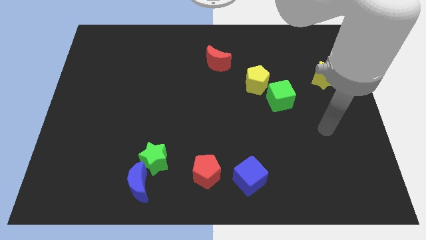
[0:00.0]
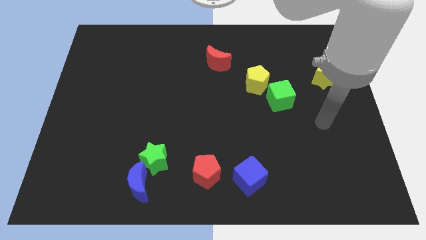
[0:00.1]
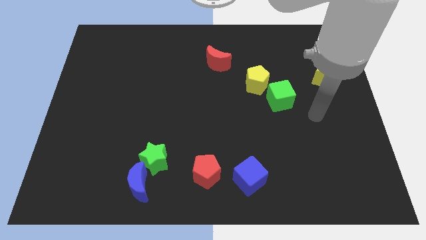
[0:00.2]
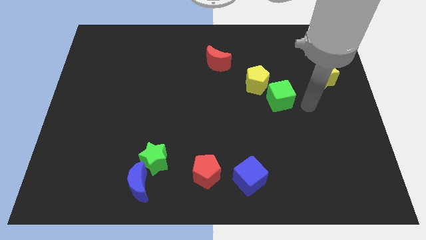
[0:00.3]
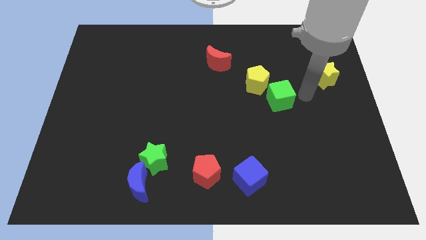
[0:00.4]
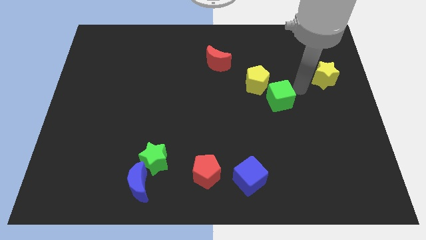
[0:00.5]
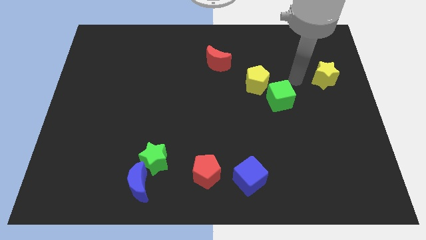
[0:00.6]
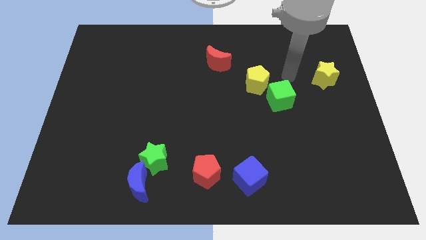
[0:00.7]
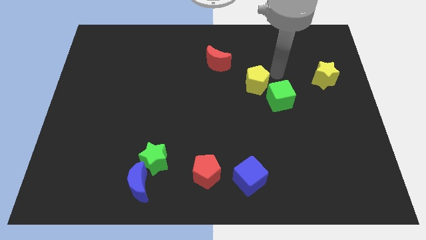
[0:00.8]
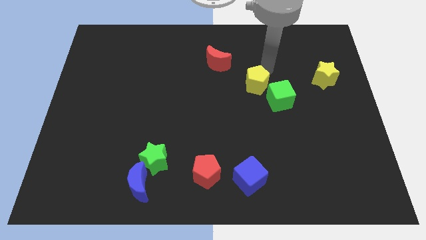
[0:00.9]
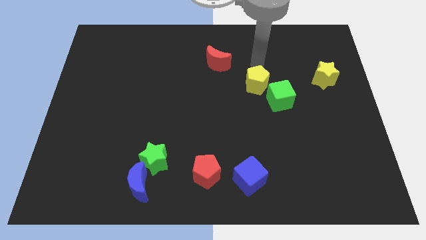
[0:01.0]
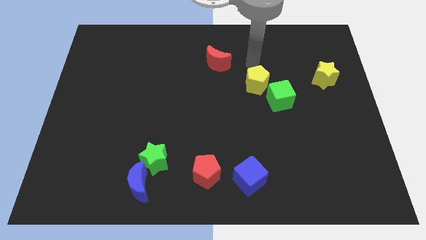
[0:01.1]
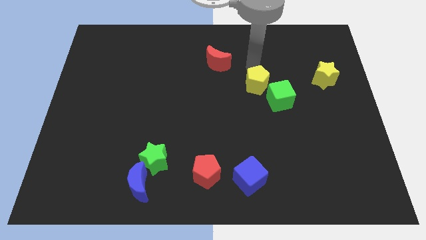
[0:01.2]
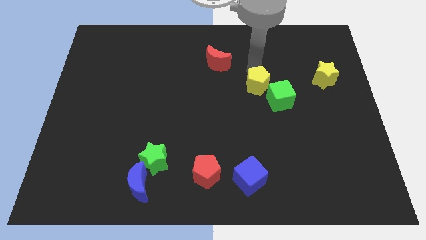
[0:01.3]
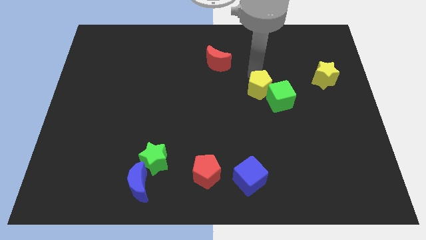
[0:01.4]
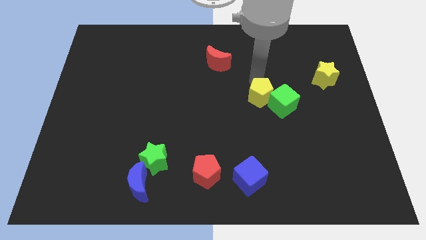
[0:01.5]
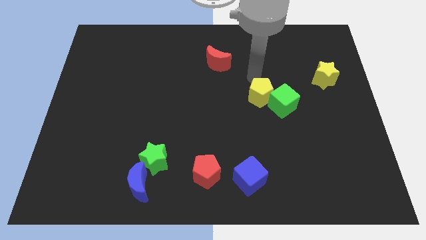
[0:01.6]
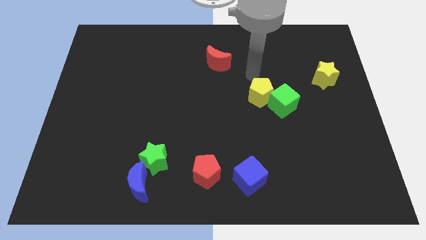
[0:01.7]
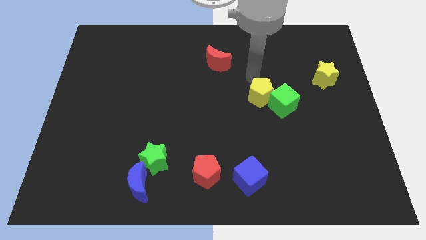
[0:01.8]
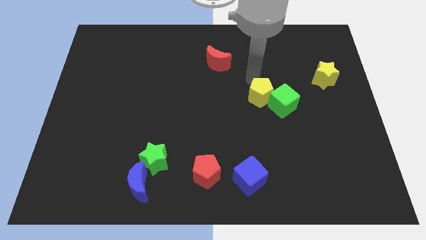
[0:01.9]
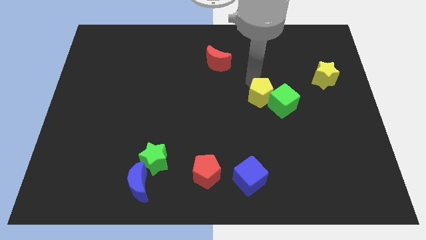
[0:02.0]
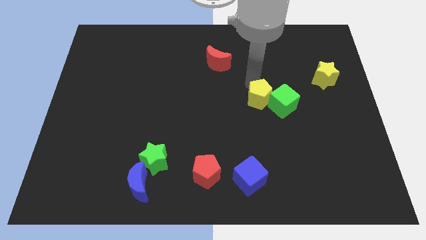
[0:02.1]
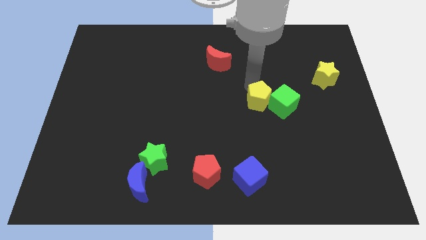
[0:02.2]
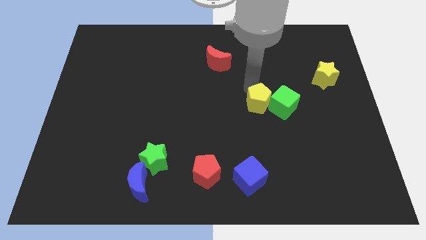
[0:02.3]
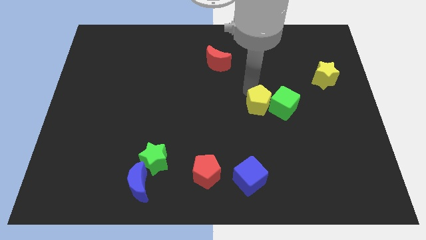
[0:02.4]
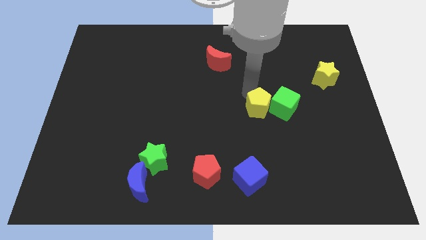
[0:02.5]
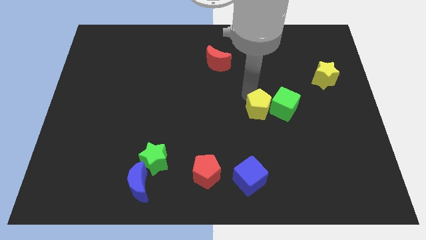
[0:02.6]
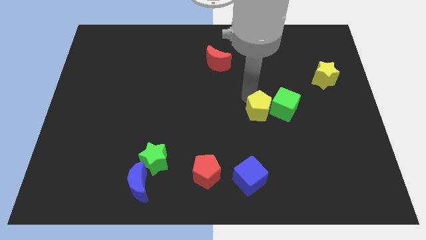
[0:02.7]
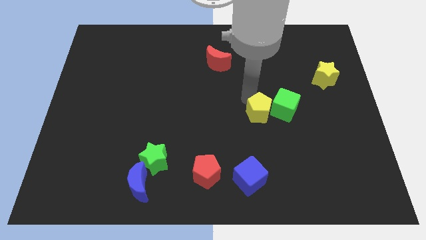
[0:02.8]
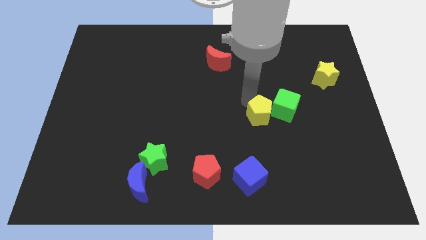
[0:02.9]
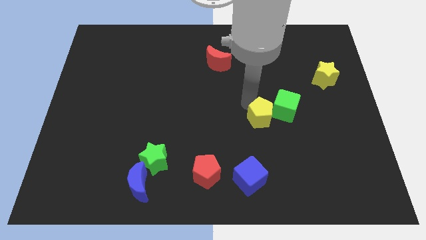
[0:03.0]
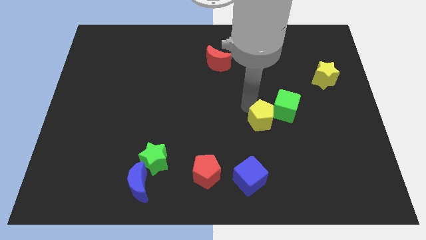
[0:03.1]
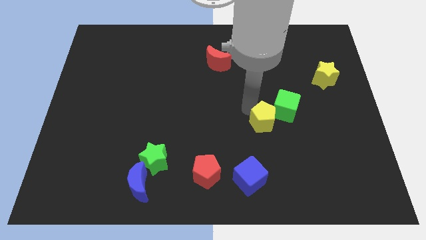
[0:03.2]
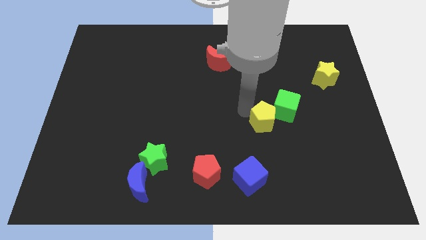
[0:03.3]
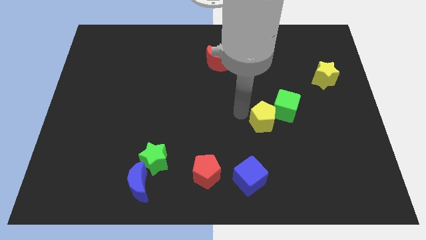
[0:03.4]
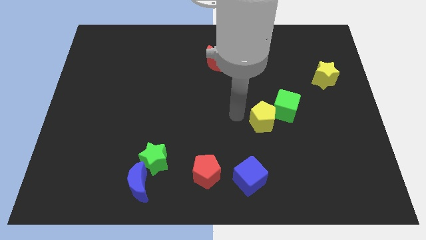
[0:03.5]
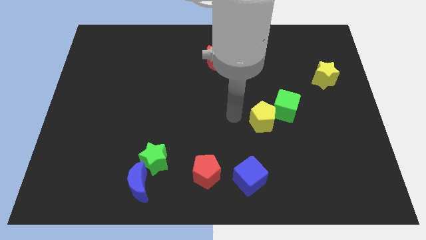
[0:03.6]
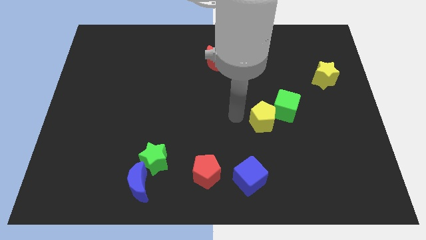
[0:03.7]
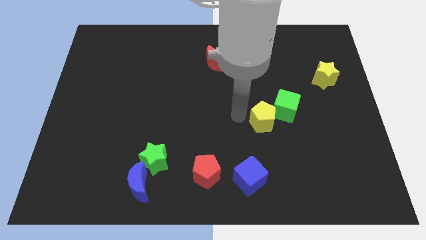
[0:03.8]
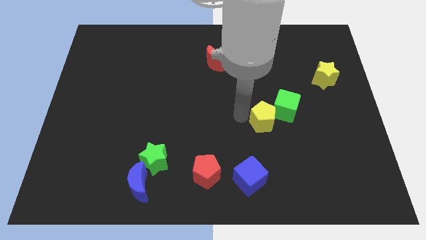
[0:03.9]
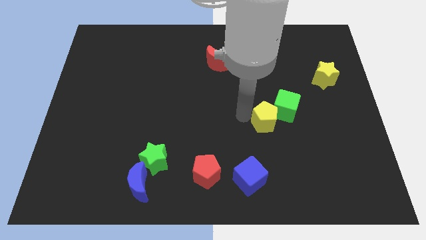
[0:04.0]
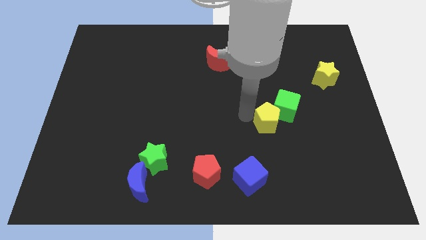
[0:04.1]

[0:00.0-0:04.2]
slightly push the yellow pentagon diagonally downwards and to the right

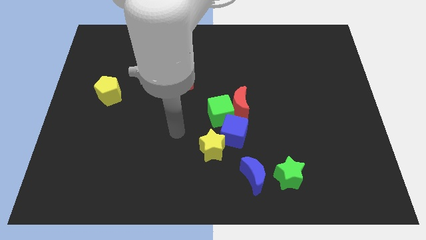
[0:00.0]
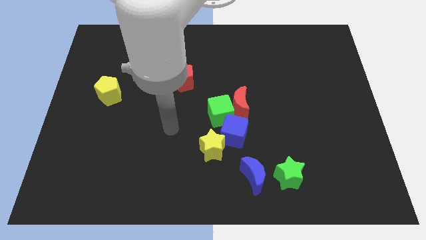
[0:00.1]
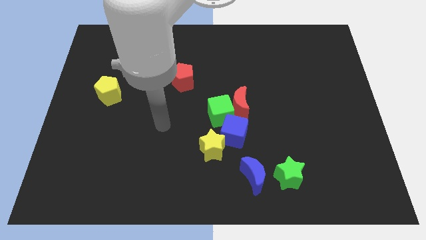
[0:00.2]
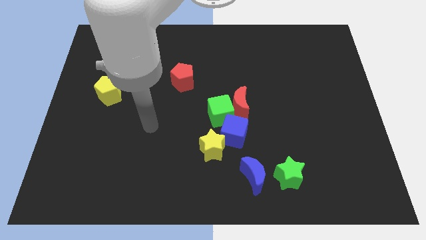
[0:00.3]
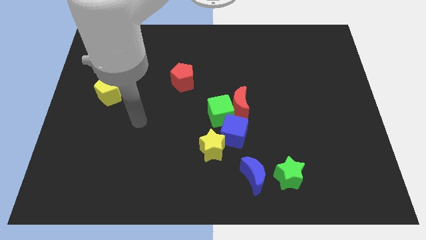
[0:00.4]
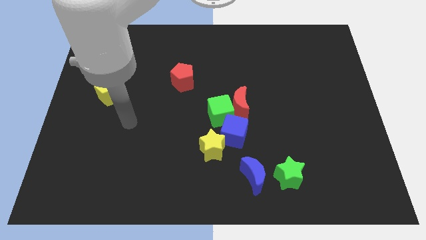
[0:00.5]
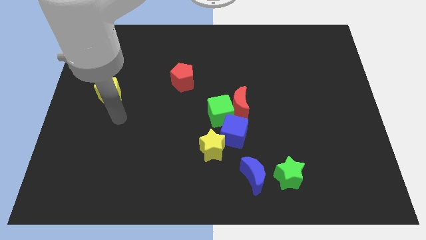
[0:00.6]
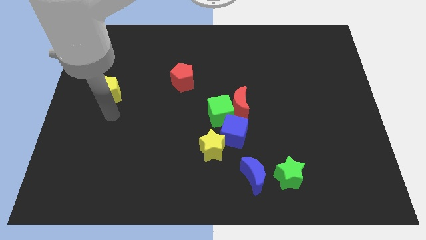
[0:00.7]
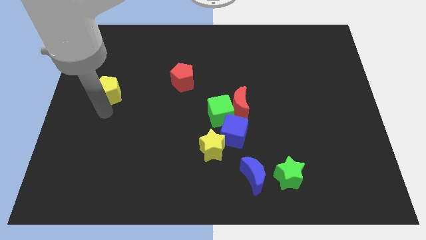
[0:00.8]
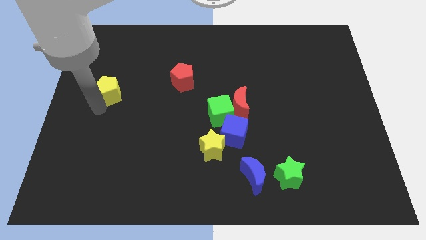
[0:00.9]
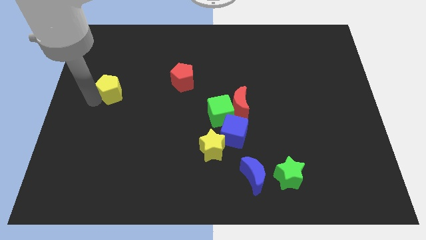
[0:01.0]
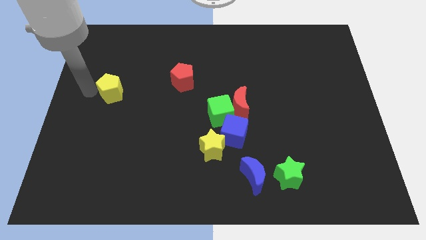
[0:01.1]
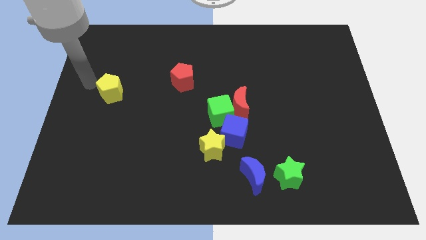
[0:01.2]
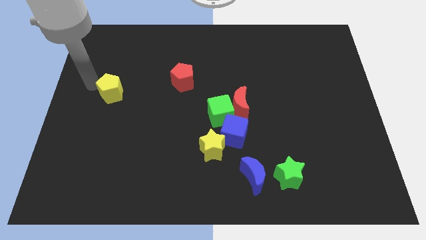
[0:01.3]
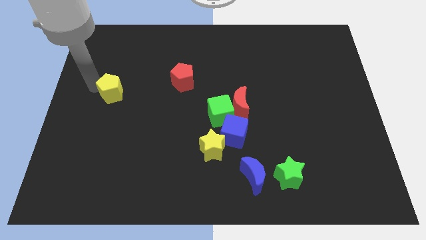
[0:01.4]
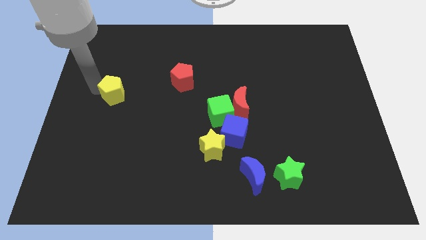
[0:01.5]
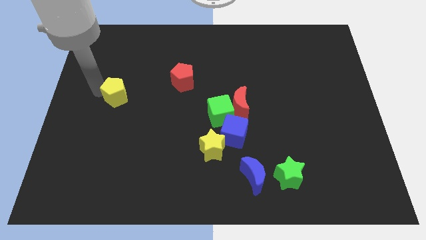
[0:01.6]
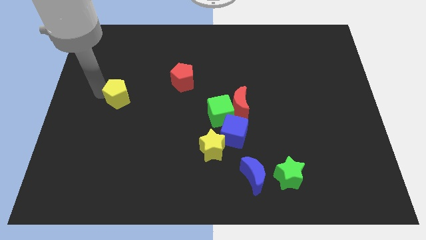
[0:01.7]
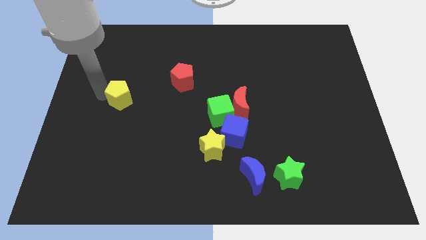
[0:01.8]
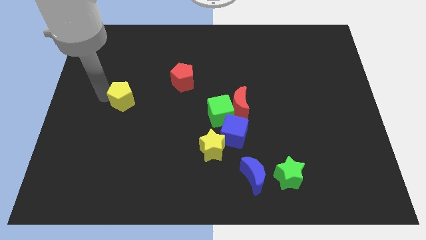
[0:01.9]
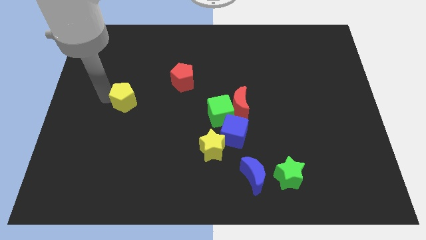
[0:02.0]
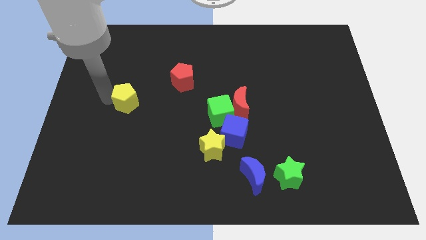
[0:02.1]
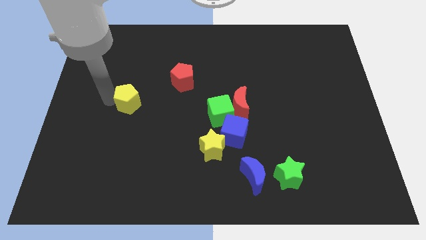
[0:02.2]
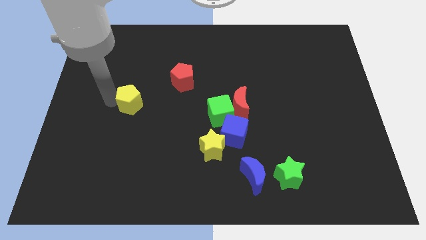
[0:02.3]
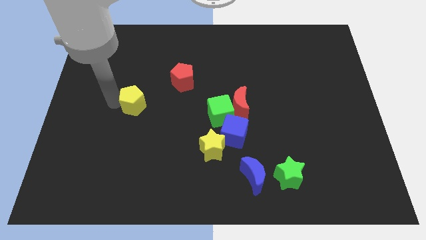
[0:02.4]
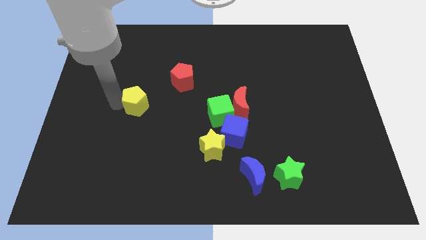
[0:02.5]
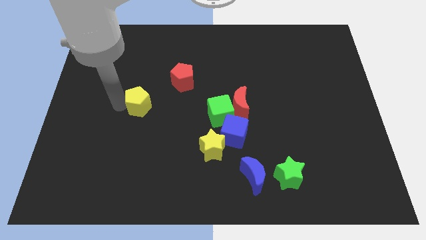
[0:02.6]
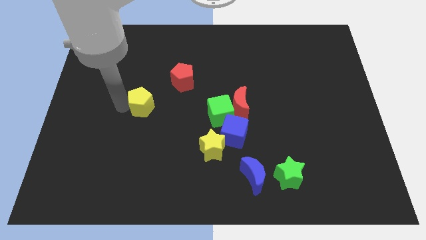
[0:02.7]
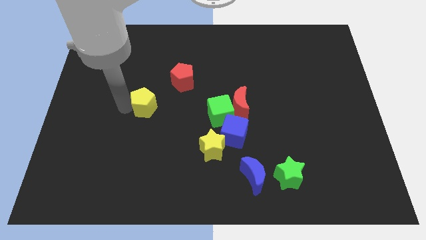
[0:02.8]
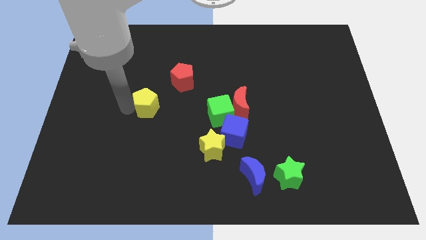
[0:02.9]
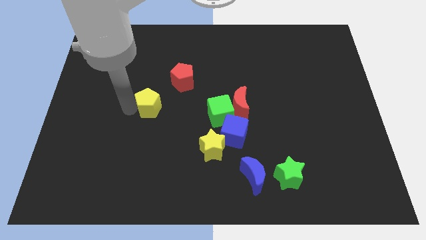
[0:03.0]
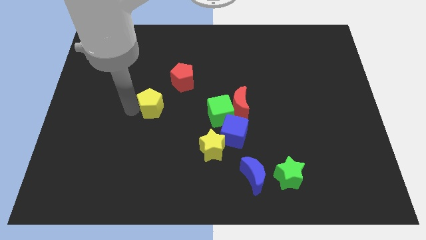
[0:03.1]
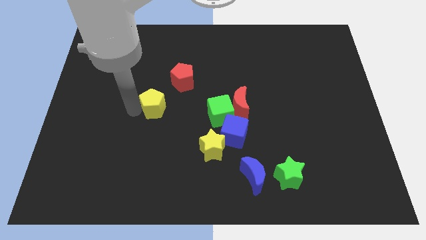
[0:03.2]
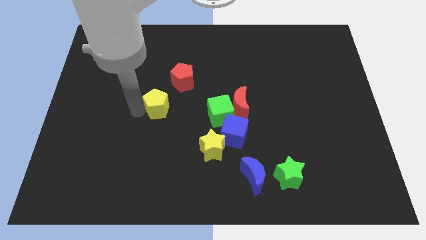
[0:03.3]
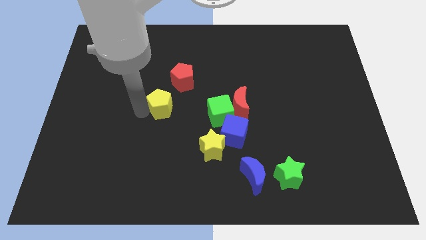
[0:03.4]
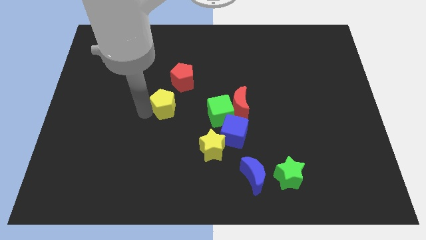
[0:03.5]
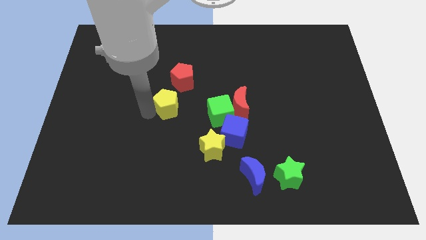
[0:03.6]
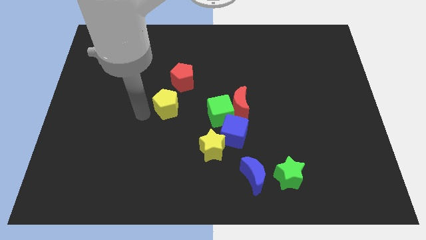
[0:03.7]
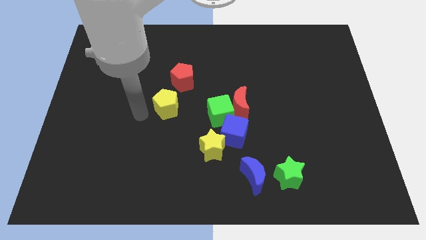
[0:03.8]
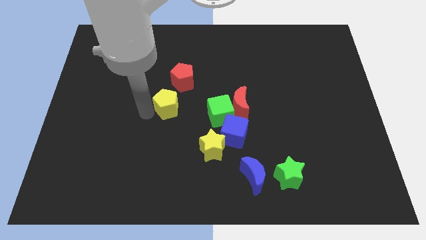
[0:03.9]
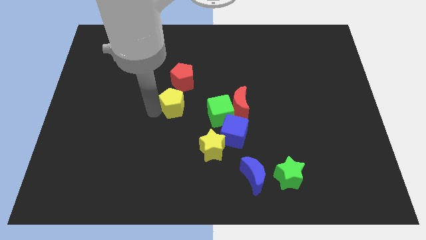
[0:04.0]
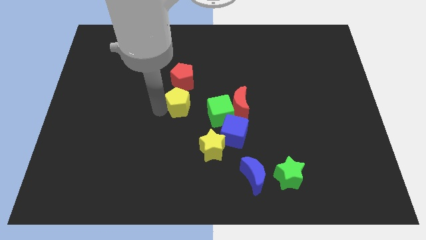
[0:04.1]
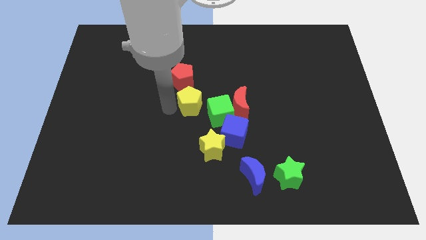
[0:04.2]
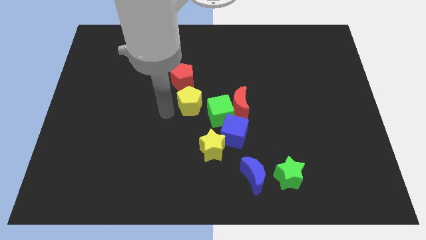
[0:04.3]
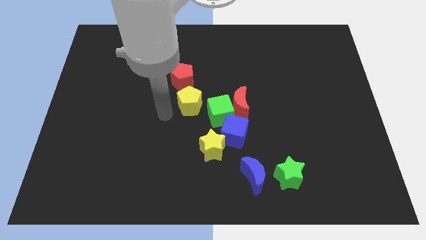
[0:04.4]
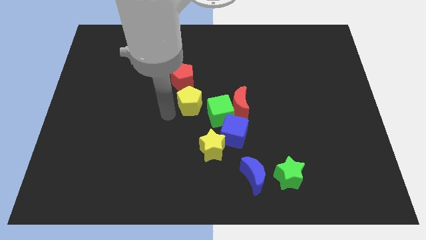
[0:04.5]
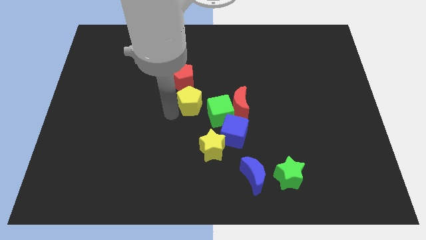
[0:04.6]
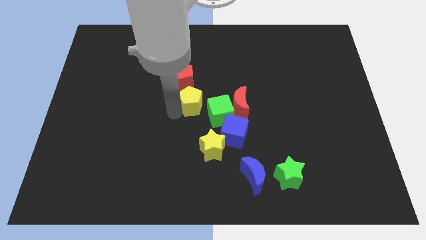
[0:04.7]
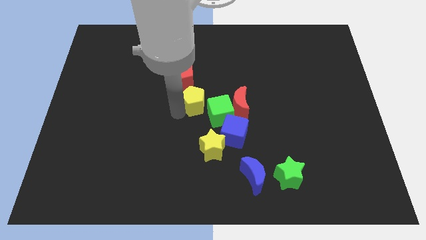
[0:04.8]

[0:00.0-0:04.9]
push the yellow pentagon right
